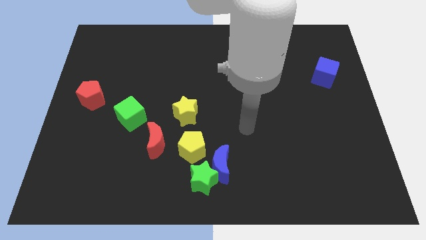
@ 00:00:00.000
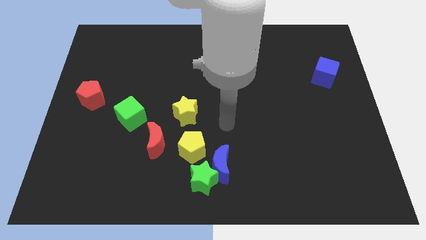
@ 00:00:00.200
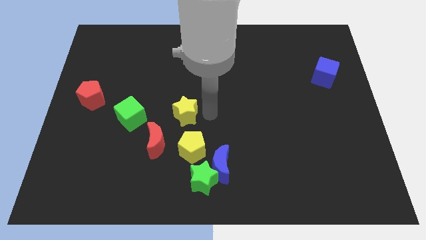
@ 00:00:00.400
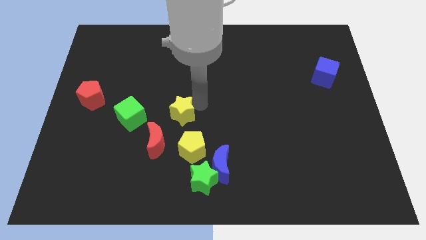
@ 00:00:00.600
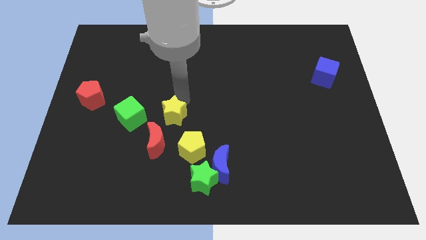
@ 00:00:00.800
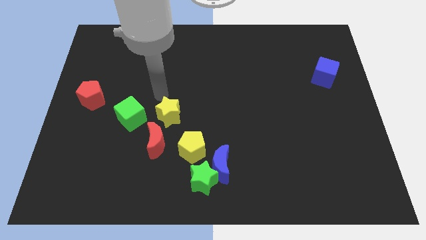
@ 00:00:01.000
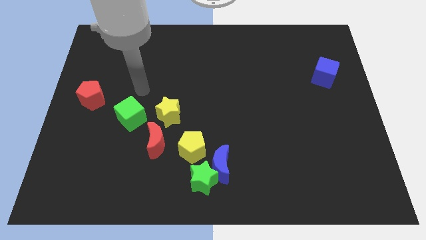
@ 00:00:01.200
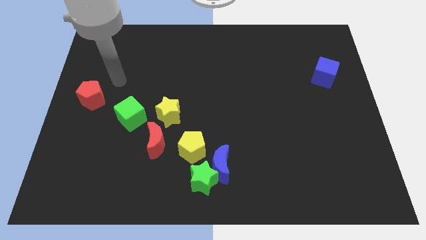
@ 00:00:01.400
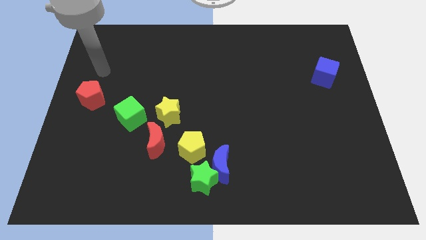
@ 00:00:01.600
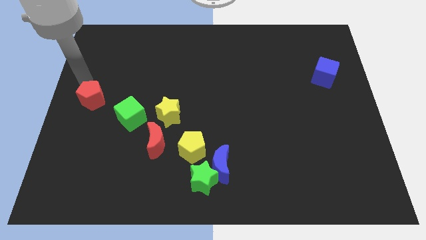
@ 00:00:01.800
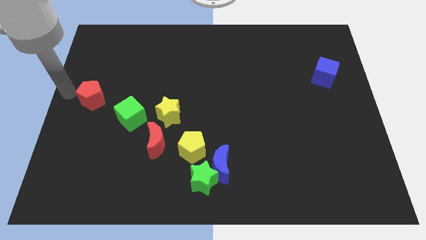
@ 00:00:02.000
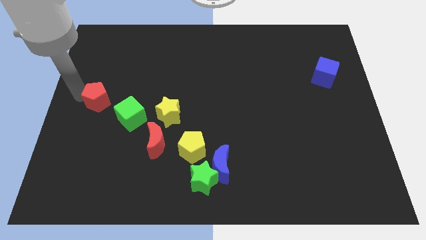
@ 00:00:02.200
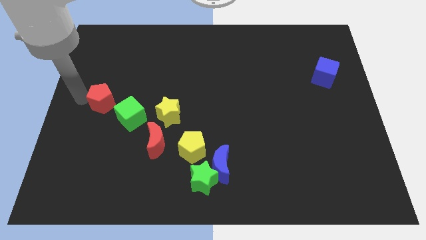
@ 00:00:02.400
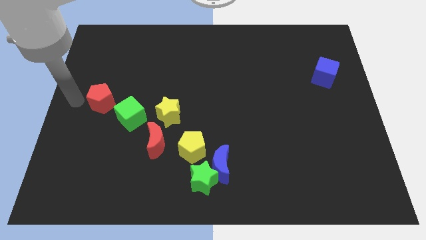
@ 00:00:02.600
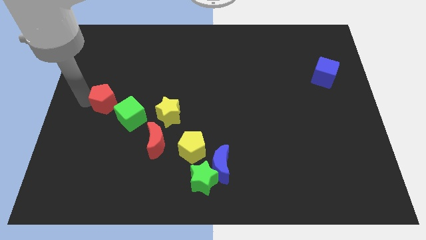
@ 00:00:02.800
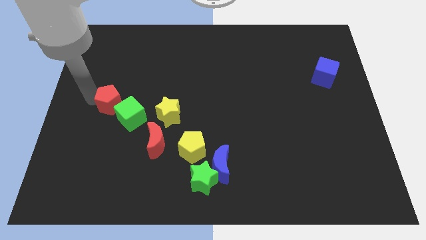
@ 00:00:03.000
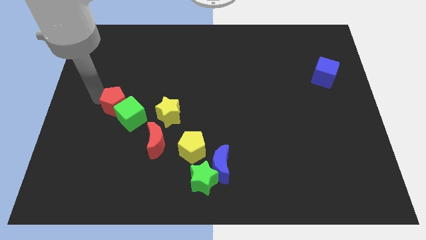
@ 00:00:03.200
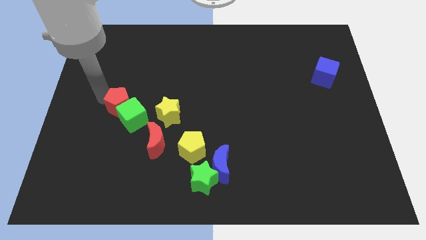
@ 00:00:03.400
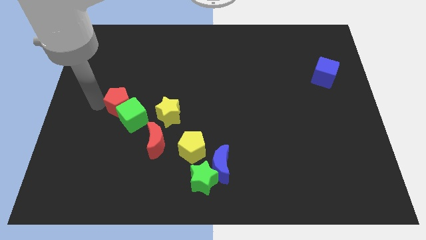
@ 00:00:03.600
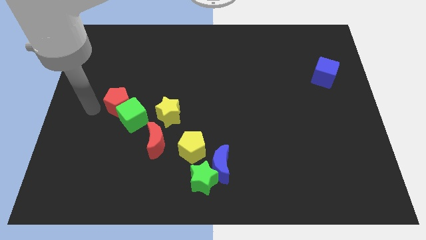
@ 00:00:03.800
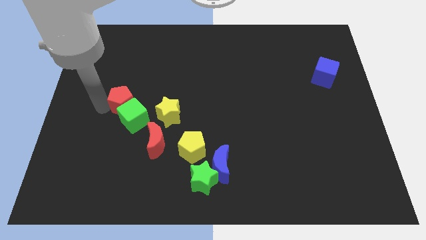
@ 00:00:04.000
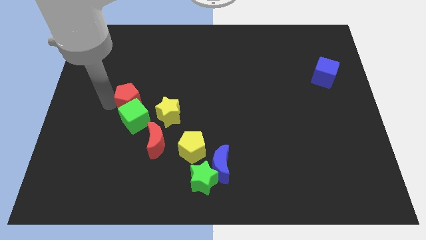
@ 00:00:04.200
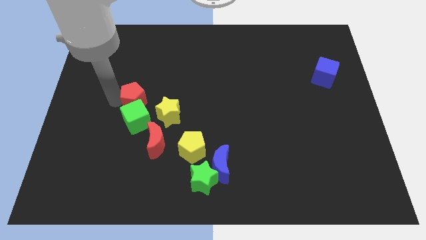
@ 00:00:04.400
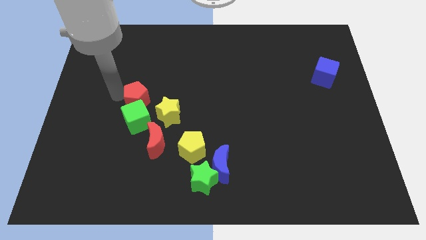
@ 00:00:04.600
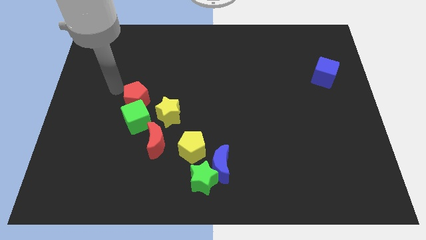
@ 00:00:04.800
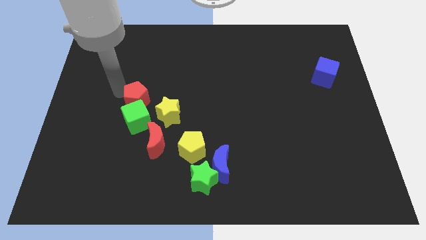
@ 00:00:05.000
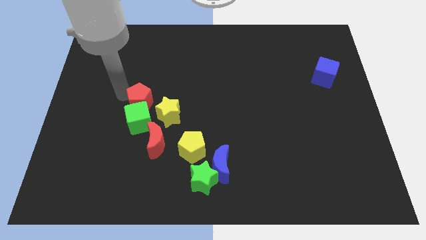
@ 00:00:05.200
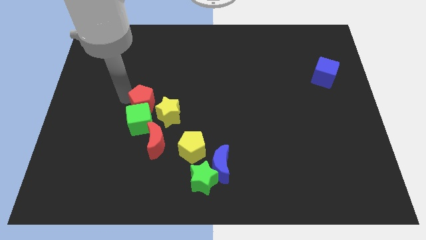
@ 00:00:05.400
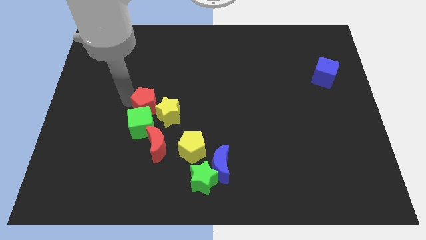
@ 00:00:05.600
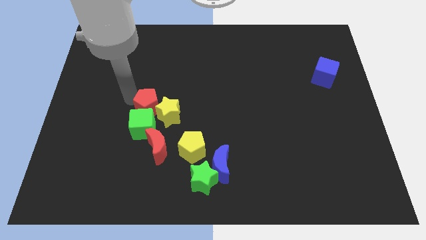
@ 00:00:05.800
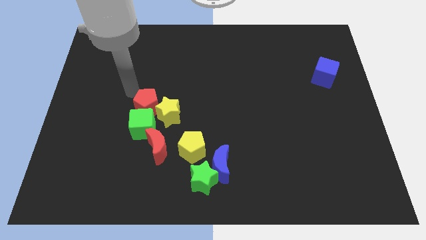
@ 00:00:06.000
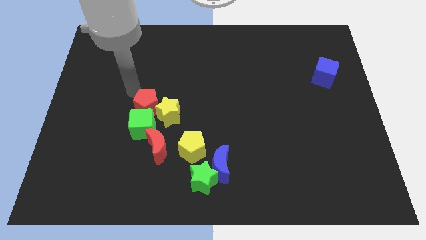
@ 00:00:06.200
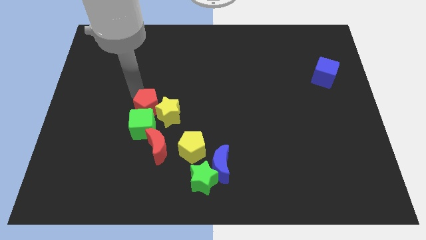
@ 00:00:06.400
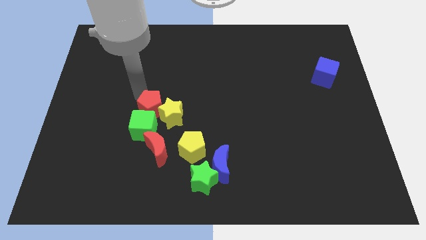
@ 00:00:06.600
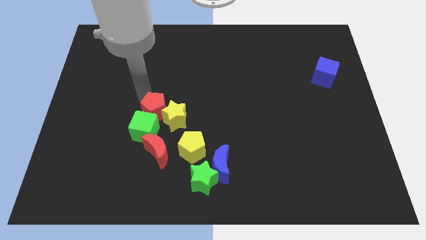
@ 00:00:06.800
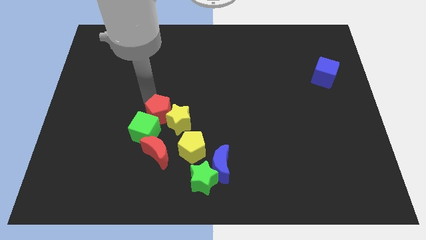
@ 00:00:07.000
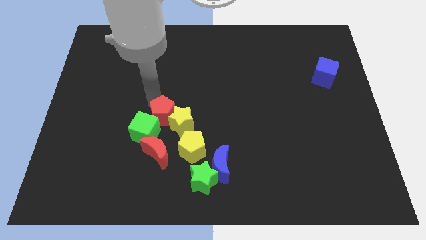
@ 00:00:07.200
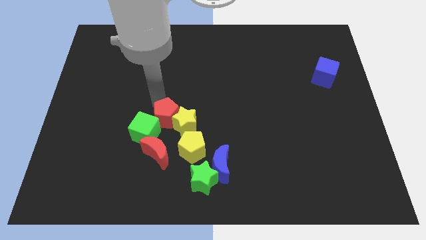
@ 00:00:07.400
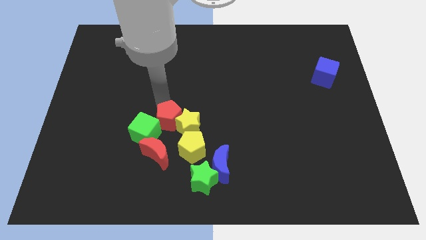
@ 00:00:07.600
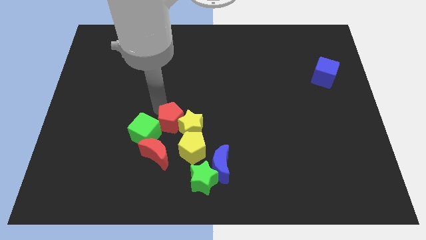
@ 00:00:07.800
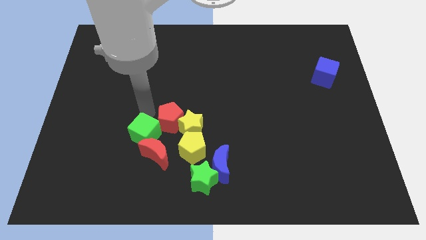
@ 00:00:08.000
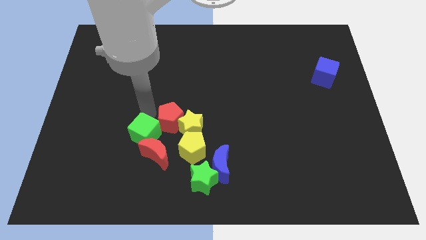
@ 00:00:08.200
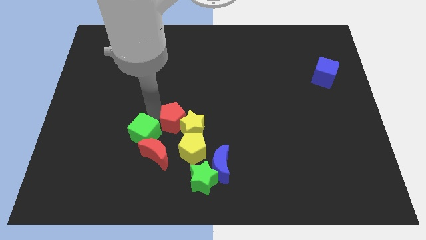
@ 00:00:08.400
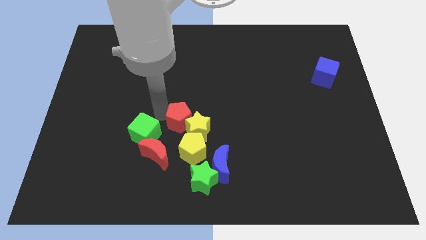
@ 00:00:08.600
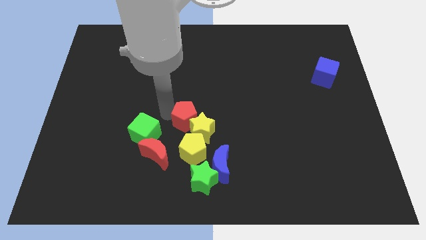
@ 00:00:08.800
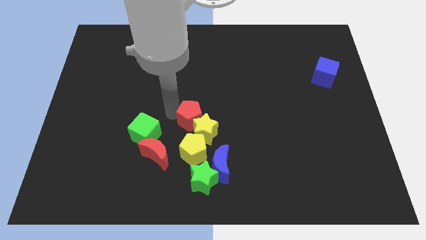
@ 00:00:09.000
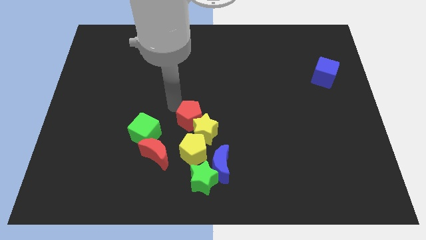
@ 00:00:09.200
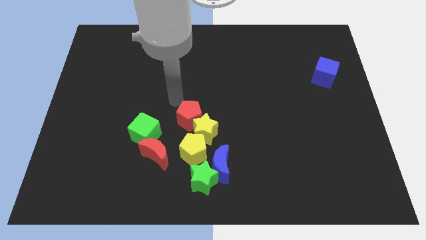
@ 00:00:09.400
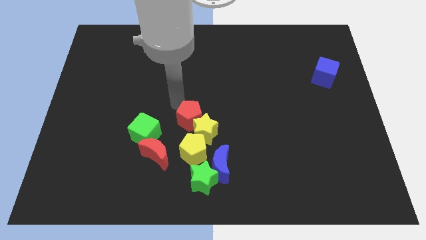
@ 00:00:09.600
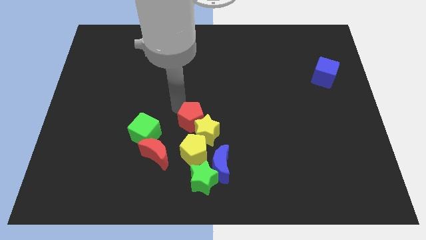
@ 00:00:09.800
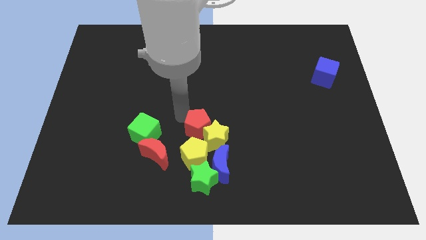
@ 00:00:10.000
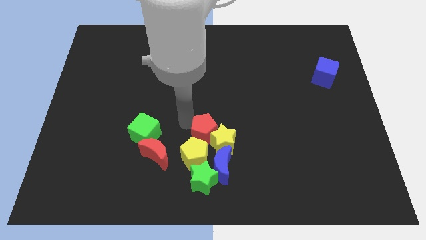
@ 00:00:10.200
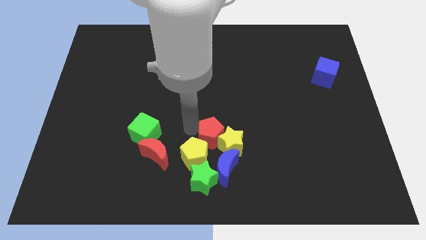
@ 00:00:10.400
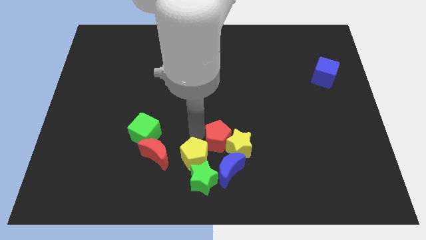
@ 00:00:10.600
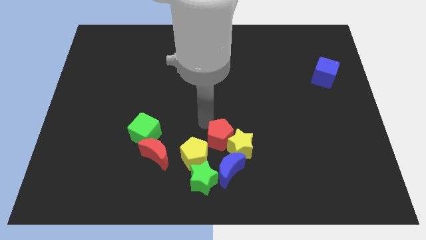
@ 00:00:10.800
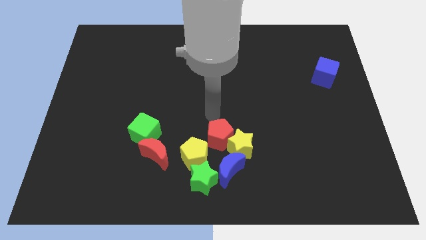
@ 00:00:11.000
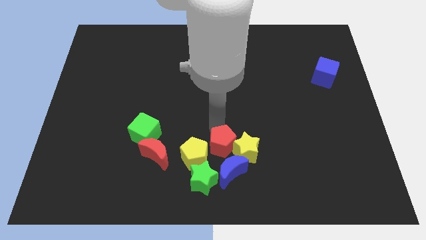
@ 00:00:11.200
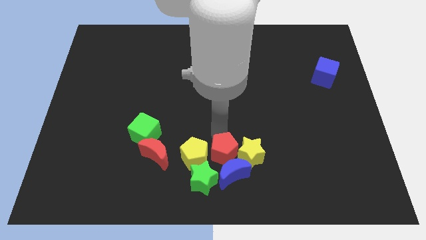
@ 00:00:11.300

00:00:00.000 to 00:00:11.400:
move the red pentagon towards the blue moon
